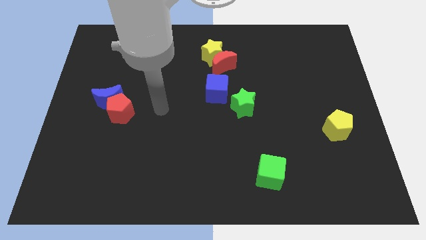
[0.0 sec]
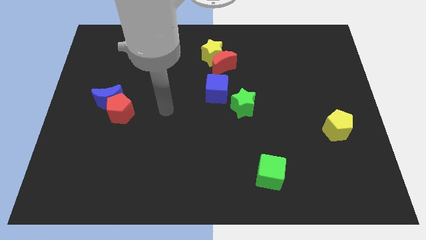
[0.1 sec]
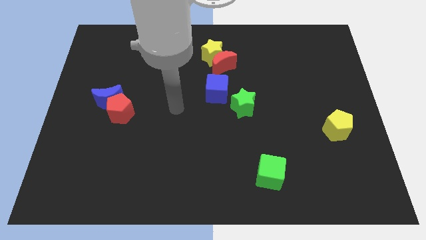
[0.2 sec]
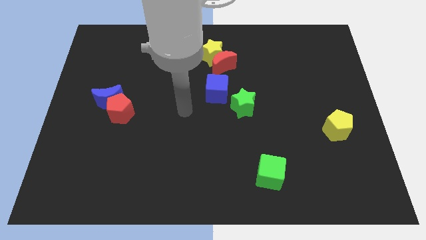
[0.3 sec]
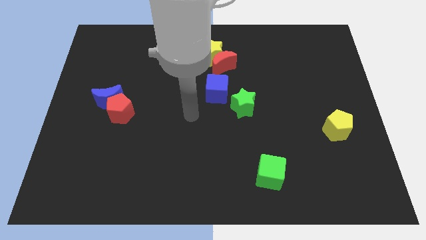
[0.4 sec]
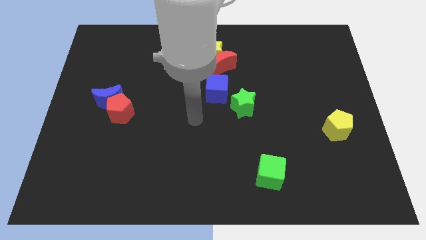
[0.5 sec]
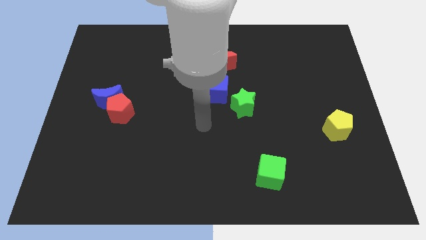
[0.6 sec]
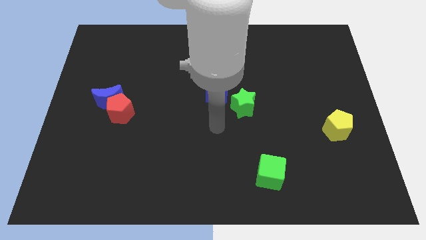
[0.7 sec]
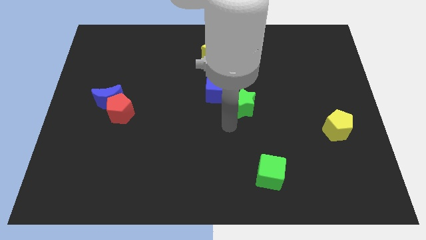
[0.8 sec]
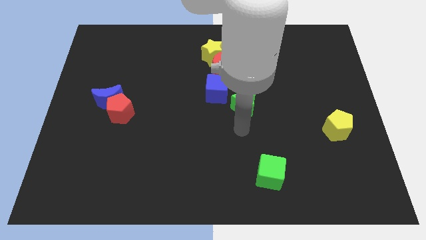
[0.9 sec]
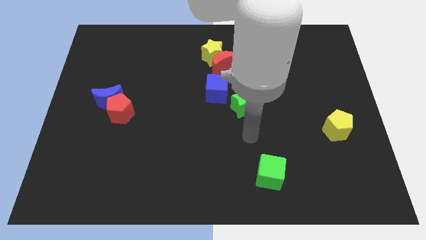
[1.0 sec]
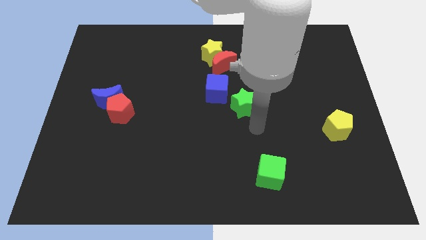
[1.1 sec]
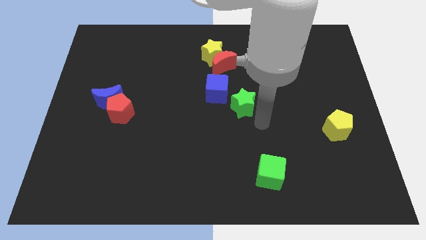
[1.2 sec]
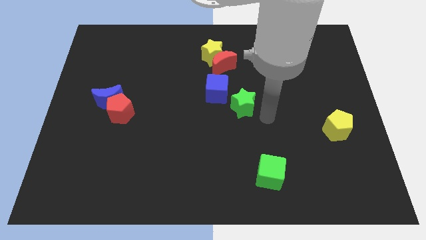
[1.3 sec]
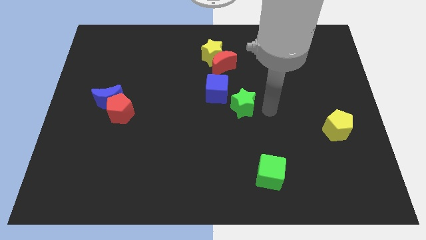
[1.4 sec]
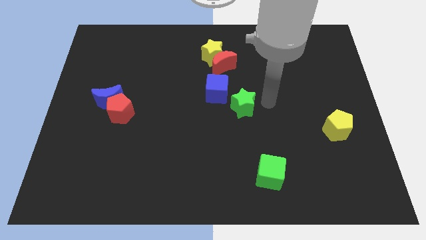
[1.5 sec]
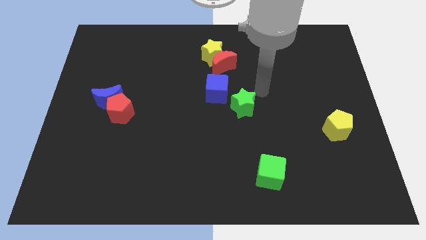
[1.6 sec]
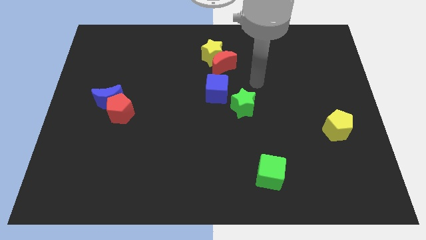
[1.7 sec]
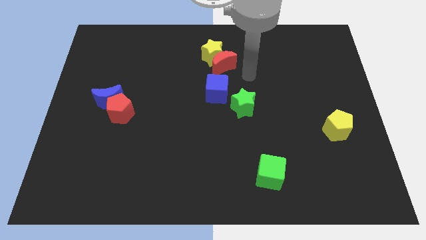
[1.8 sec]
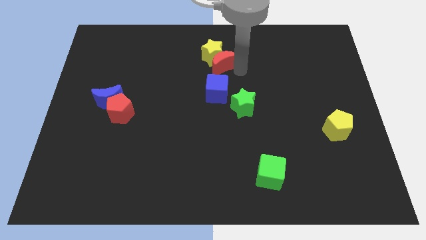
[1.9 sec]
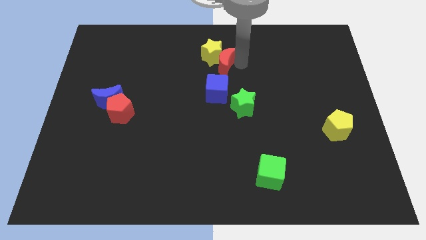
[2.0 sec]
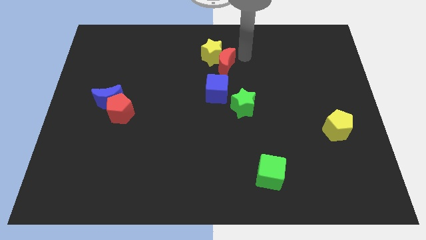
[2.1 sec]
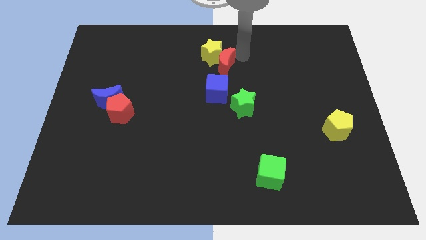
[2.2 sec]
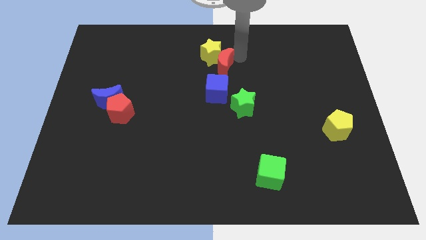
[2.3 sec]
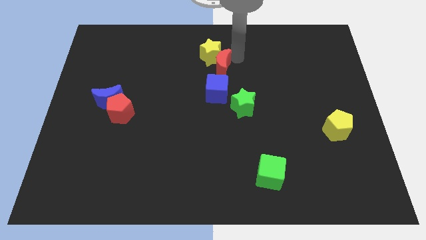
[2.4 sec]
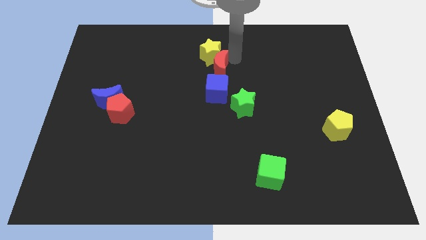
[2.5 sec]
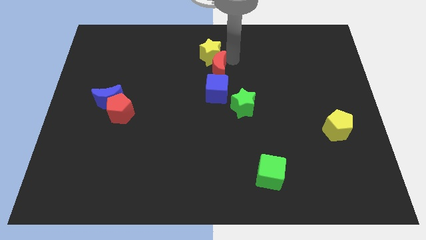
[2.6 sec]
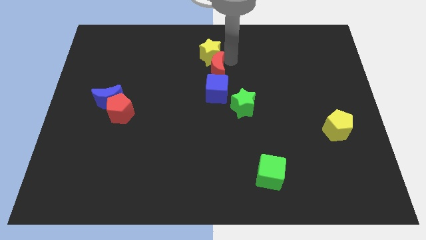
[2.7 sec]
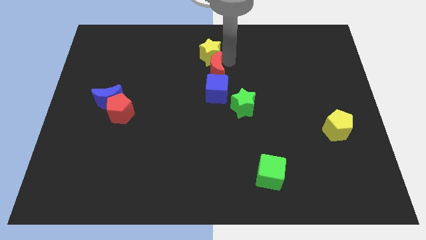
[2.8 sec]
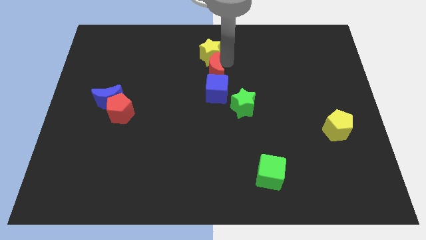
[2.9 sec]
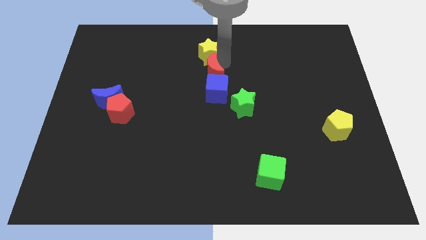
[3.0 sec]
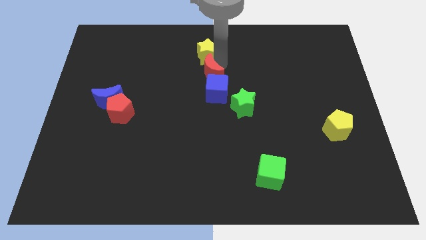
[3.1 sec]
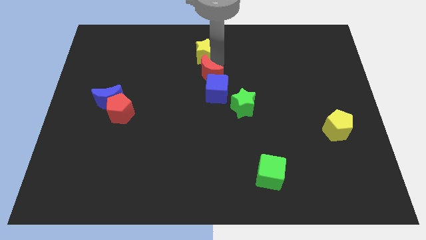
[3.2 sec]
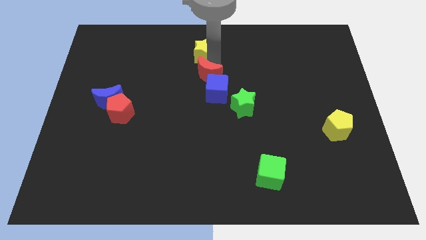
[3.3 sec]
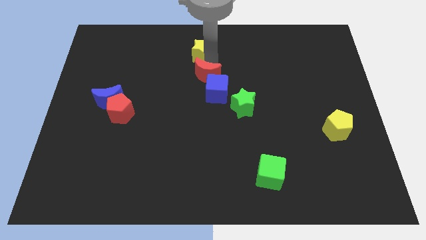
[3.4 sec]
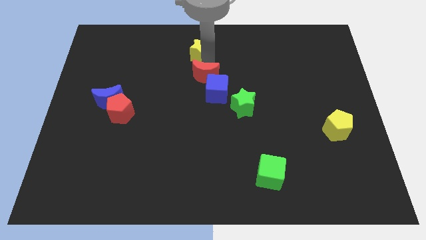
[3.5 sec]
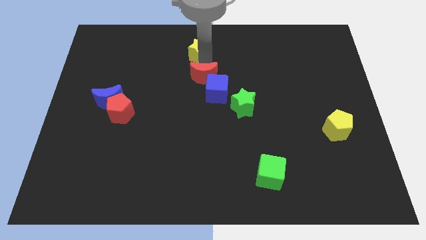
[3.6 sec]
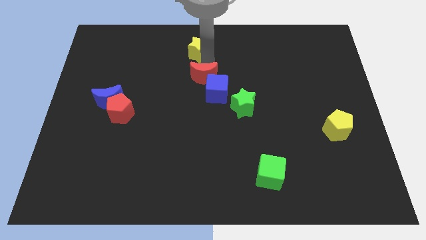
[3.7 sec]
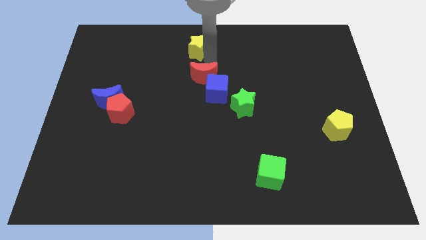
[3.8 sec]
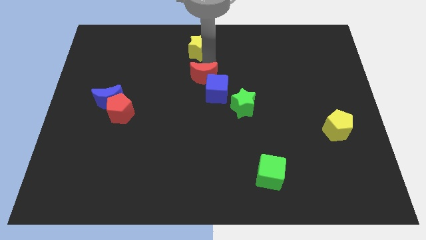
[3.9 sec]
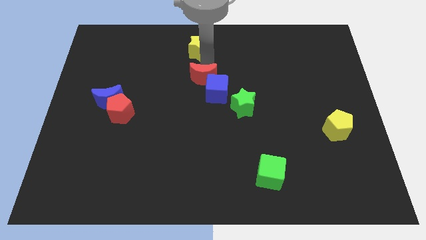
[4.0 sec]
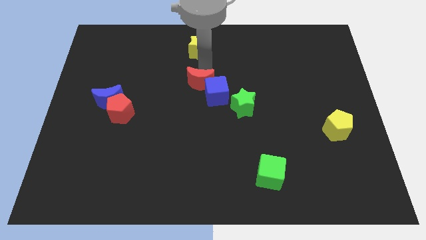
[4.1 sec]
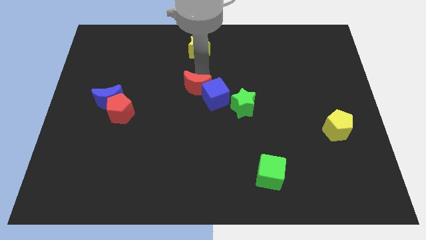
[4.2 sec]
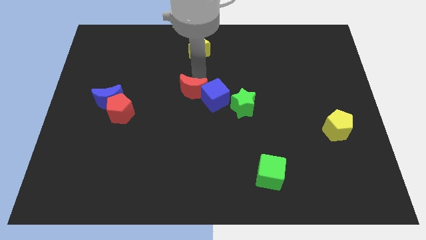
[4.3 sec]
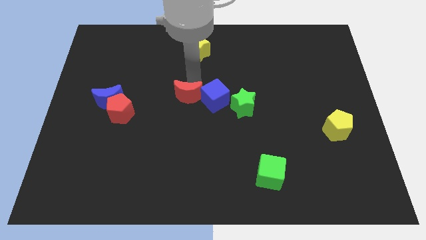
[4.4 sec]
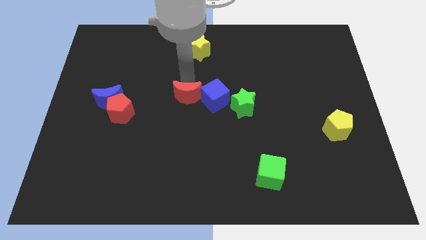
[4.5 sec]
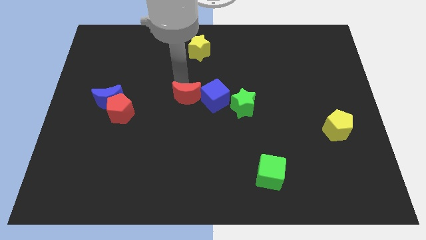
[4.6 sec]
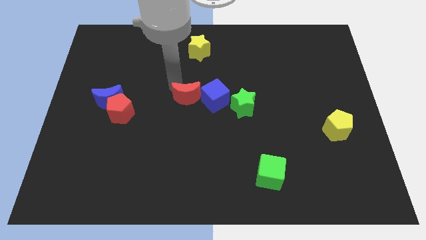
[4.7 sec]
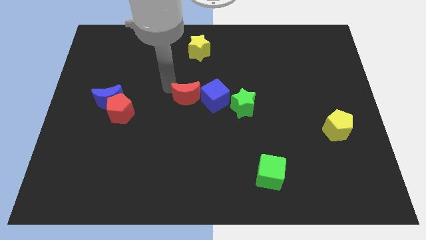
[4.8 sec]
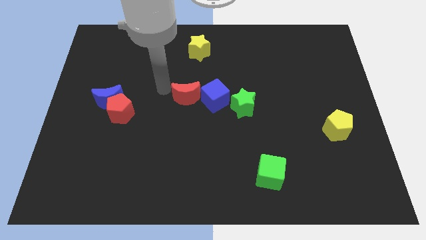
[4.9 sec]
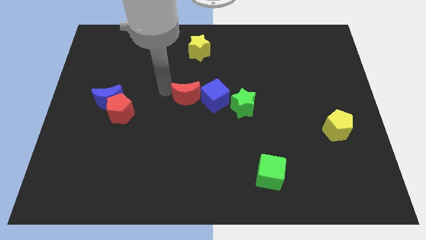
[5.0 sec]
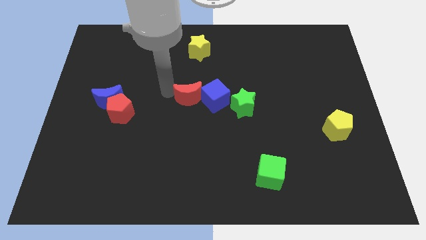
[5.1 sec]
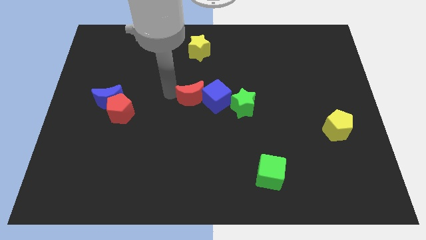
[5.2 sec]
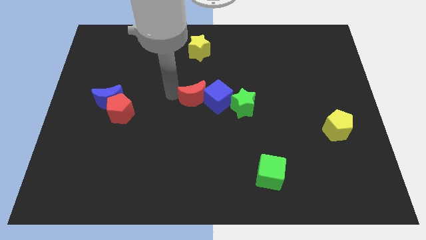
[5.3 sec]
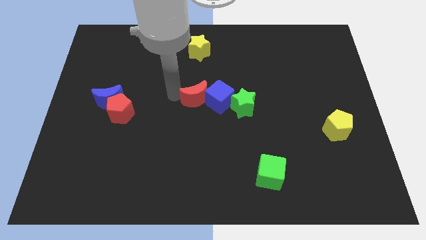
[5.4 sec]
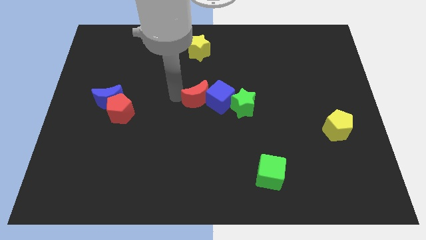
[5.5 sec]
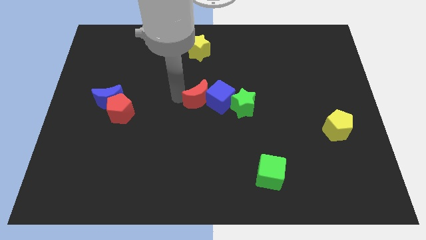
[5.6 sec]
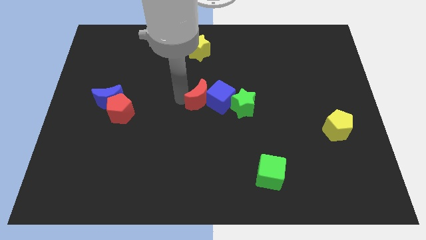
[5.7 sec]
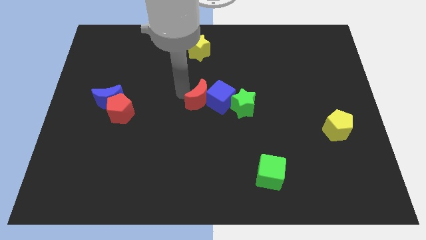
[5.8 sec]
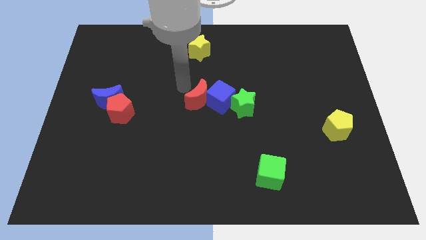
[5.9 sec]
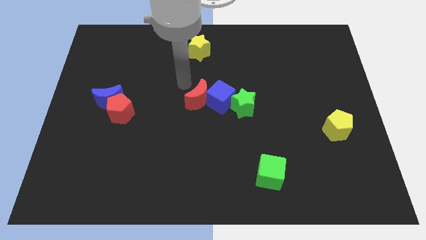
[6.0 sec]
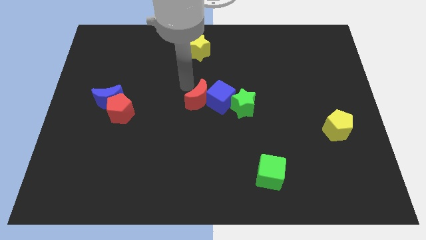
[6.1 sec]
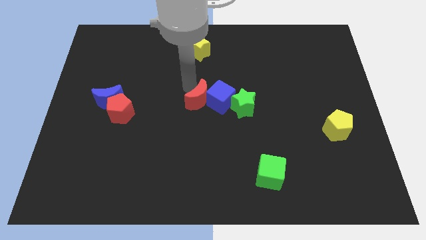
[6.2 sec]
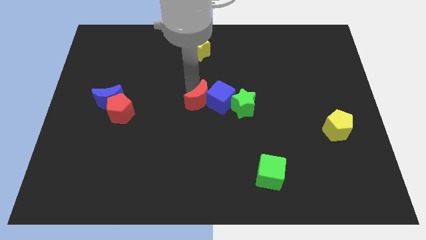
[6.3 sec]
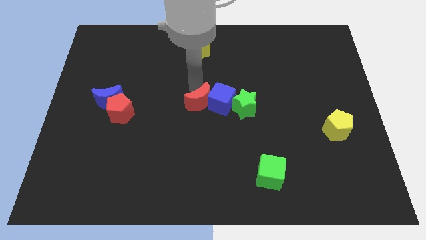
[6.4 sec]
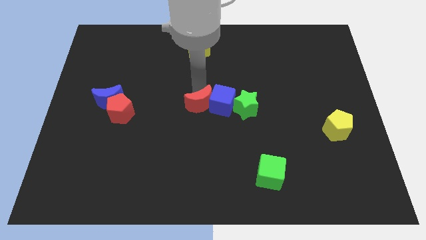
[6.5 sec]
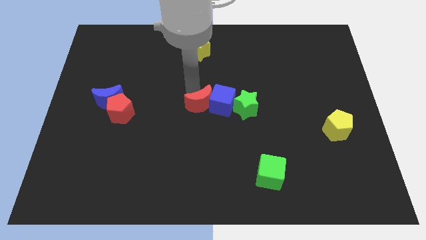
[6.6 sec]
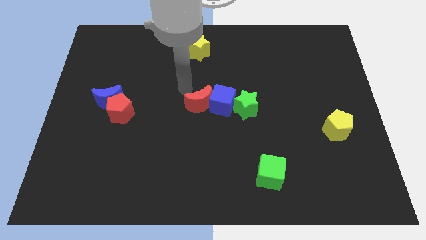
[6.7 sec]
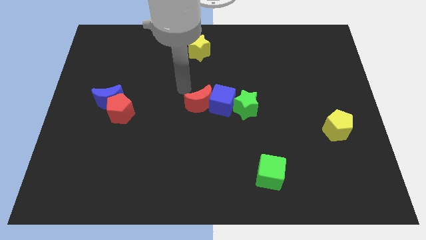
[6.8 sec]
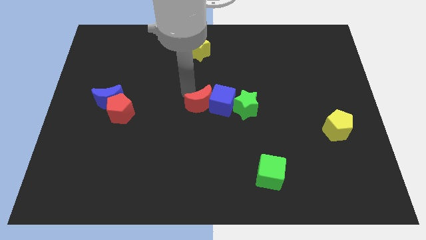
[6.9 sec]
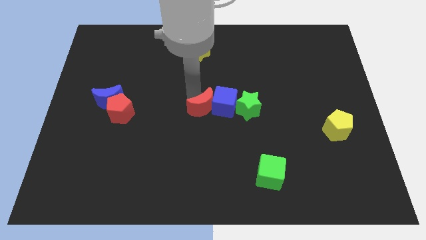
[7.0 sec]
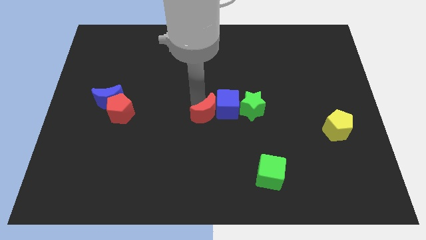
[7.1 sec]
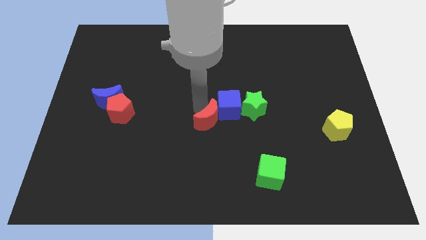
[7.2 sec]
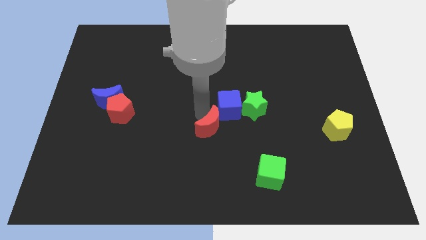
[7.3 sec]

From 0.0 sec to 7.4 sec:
push the red moon diagonally down and to the left of the green star
